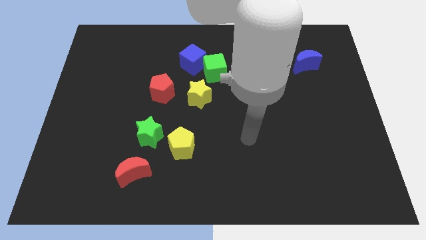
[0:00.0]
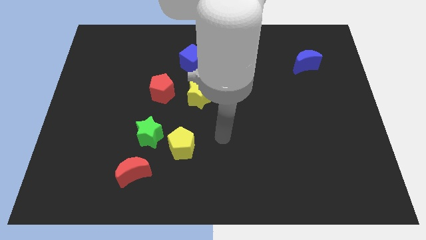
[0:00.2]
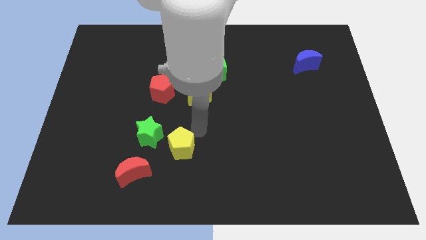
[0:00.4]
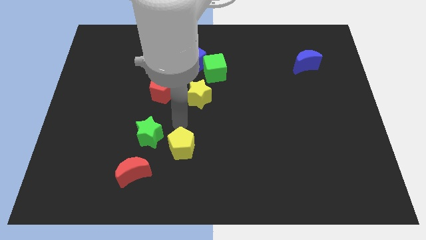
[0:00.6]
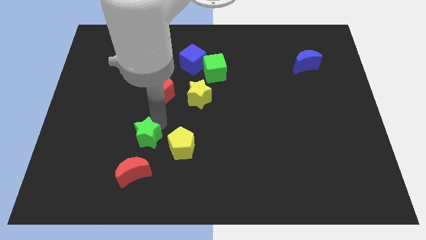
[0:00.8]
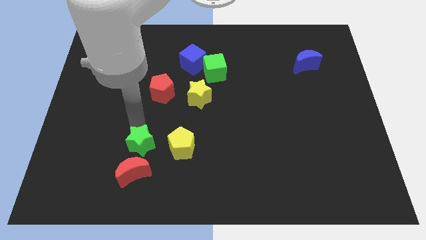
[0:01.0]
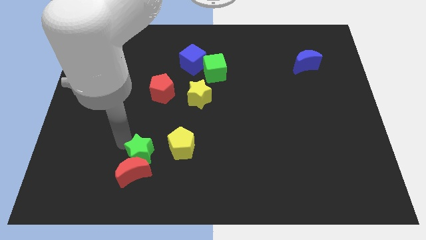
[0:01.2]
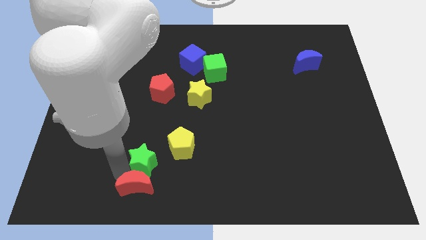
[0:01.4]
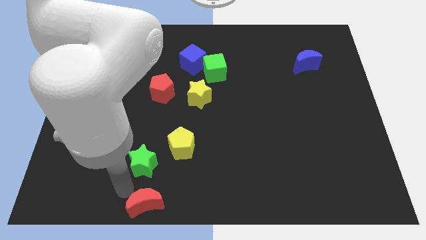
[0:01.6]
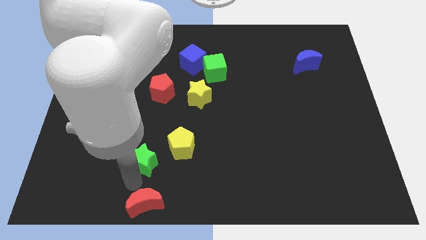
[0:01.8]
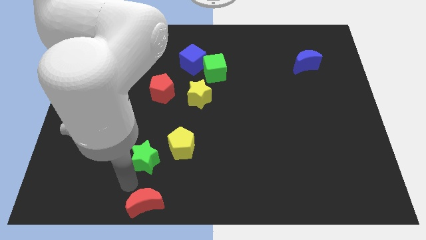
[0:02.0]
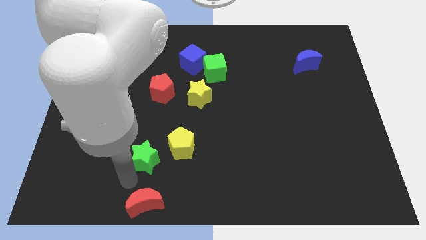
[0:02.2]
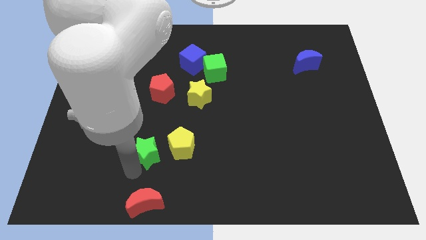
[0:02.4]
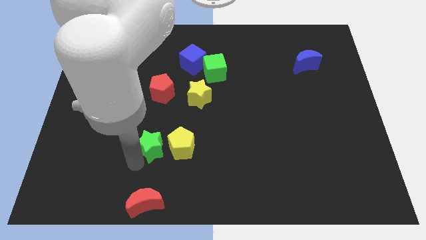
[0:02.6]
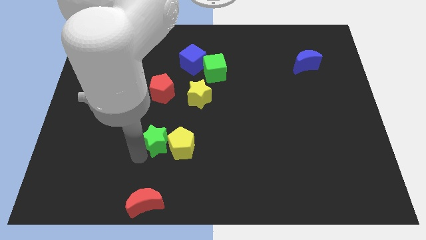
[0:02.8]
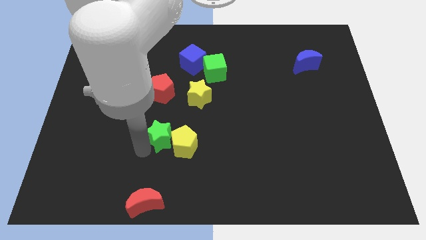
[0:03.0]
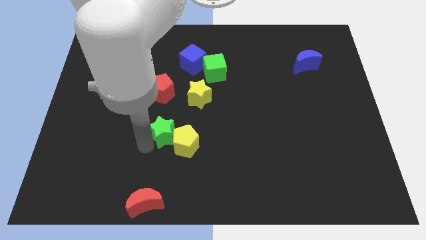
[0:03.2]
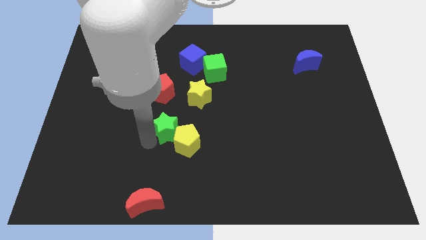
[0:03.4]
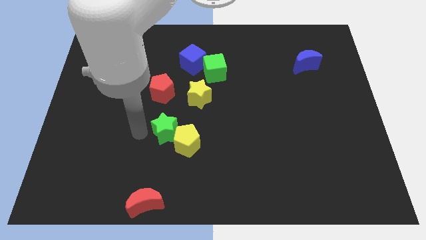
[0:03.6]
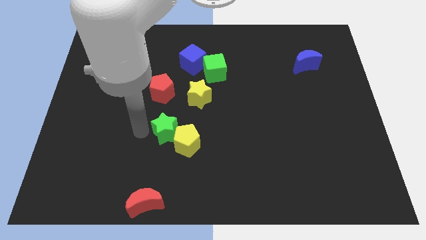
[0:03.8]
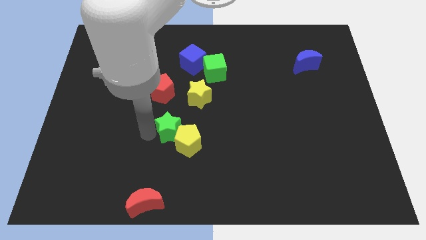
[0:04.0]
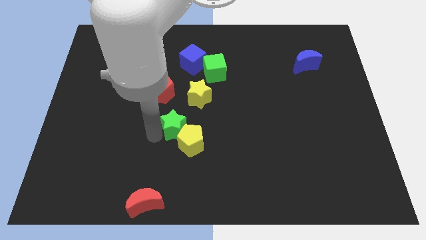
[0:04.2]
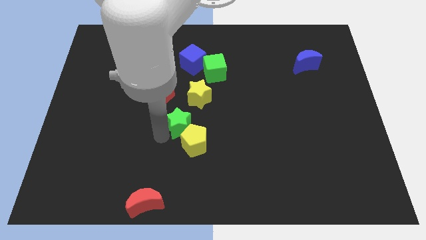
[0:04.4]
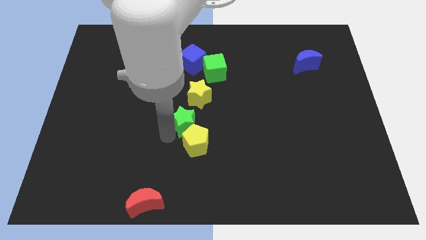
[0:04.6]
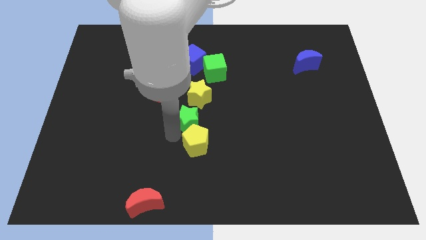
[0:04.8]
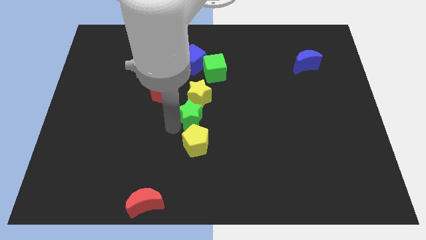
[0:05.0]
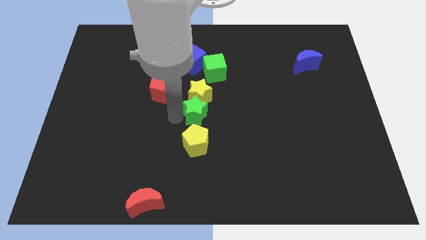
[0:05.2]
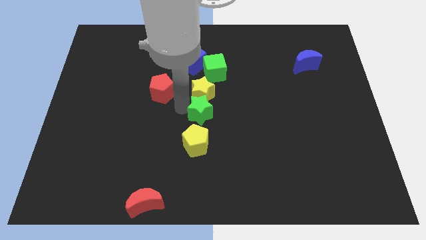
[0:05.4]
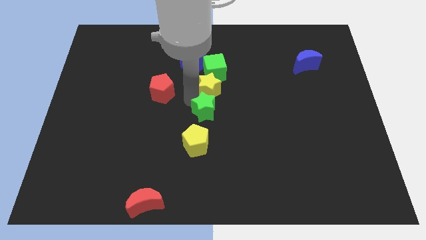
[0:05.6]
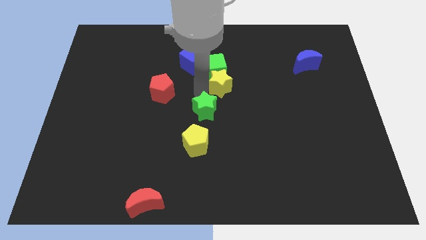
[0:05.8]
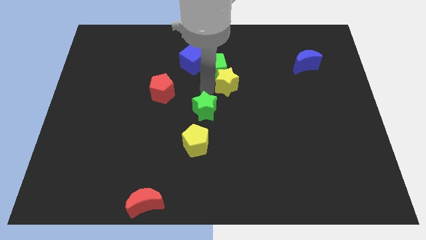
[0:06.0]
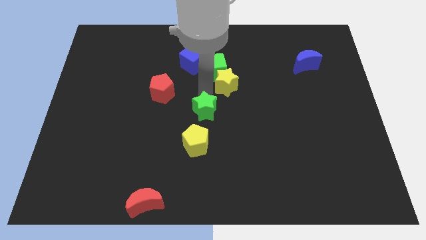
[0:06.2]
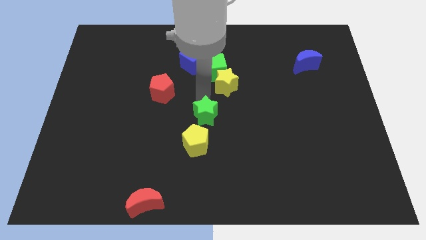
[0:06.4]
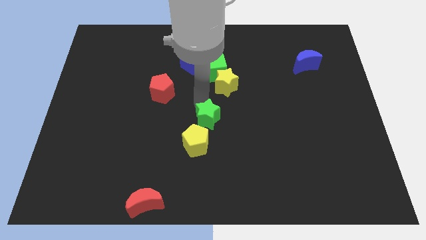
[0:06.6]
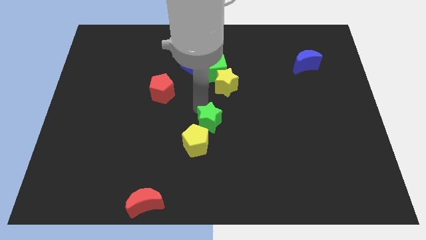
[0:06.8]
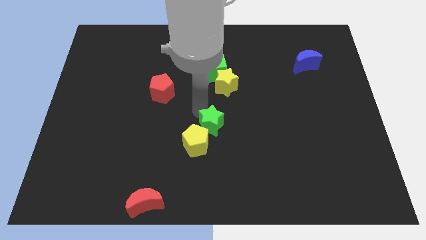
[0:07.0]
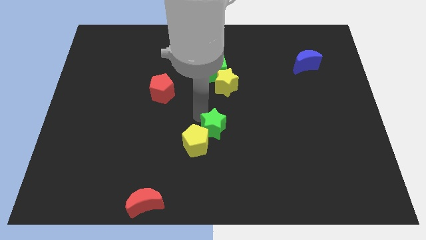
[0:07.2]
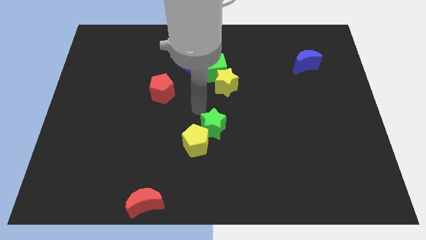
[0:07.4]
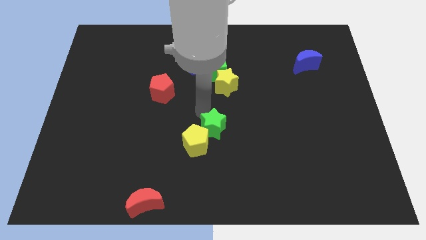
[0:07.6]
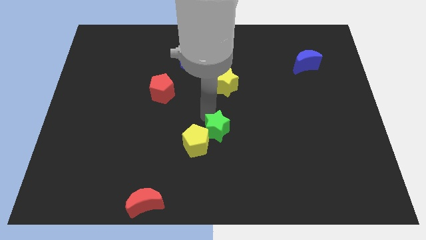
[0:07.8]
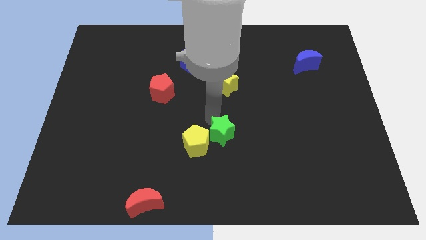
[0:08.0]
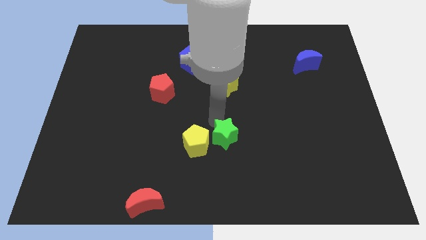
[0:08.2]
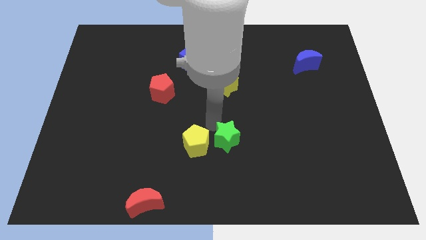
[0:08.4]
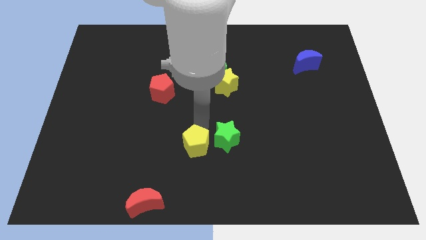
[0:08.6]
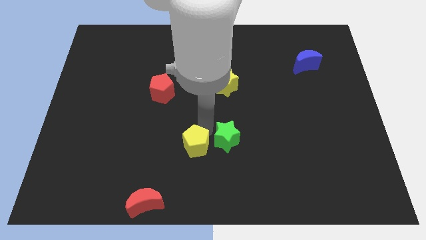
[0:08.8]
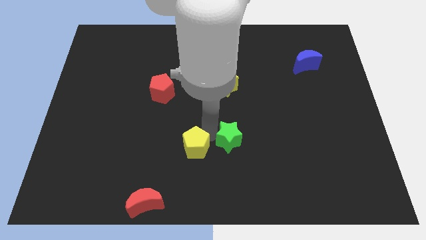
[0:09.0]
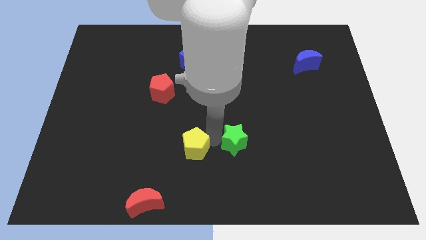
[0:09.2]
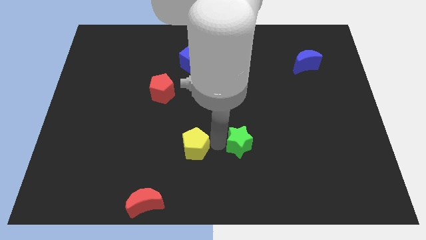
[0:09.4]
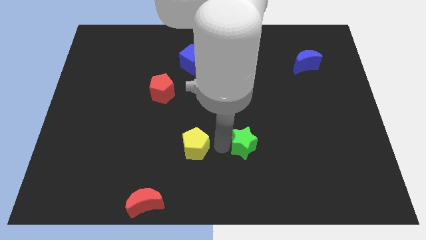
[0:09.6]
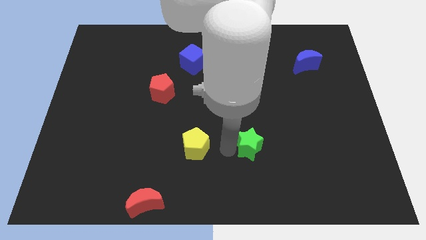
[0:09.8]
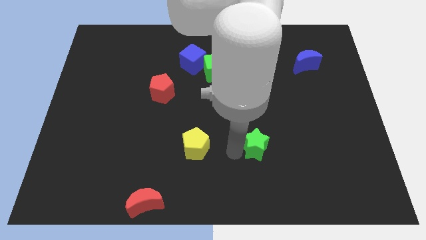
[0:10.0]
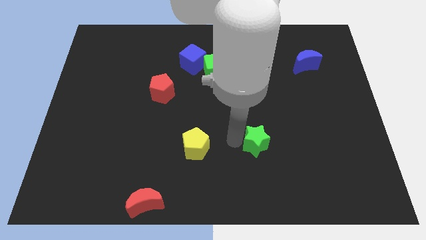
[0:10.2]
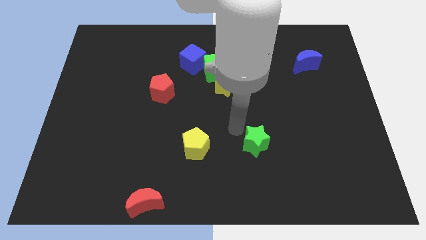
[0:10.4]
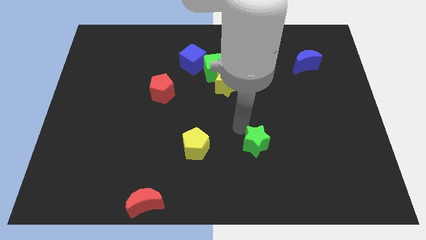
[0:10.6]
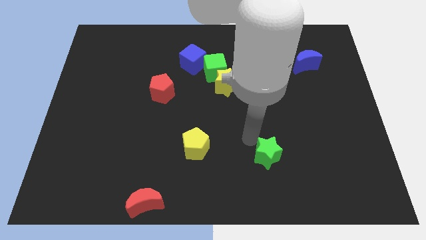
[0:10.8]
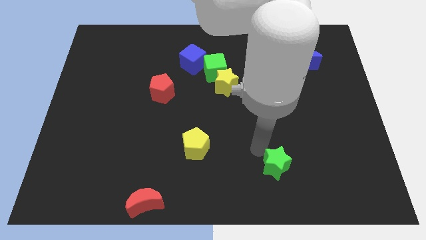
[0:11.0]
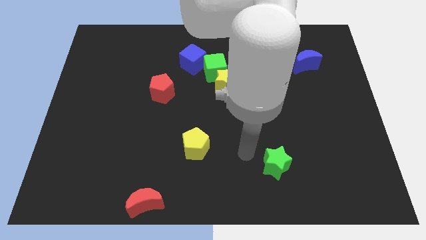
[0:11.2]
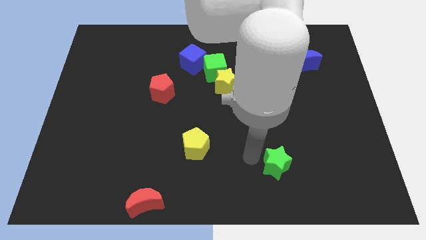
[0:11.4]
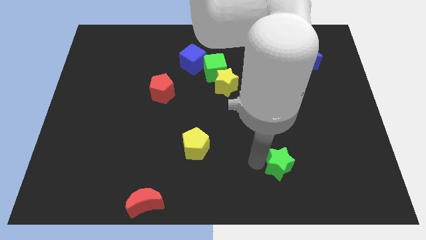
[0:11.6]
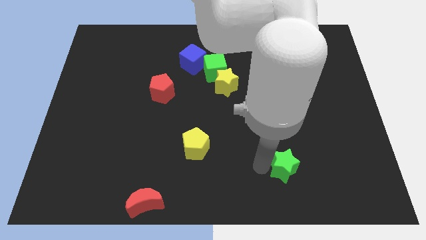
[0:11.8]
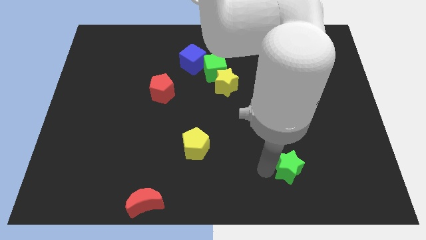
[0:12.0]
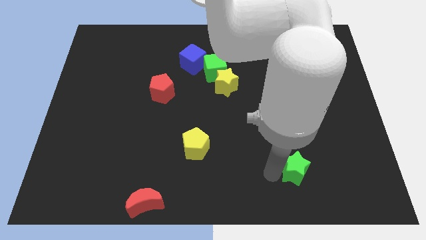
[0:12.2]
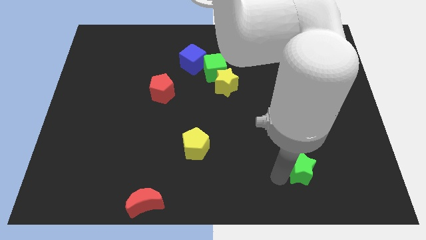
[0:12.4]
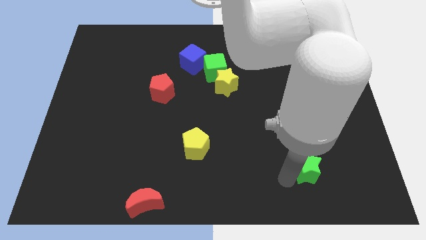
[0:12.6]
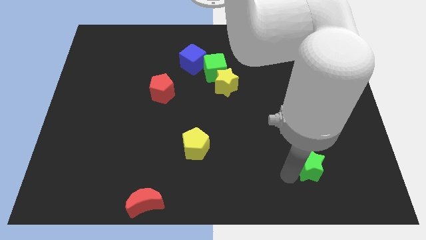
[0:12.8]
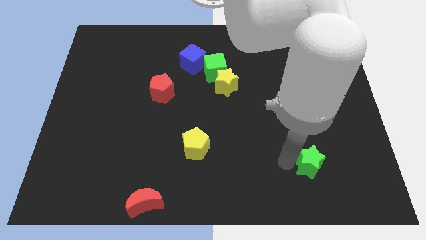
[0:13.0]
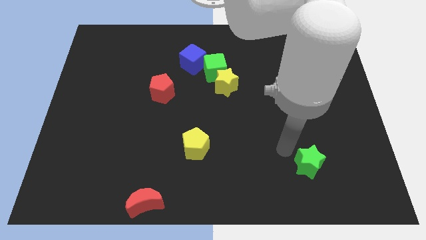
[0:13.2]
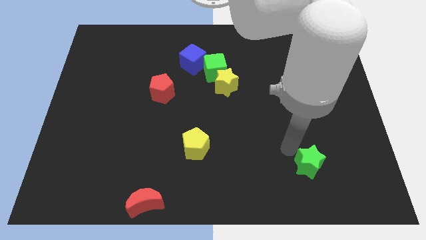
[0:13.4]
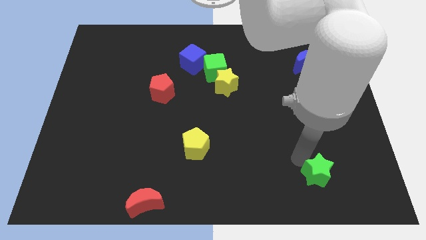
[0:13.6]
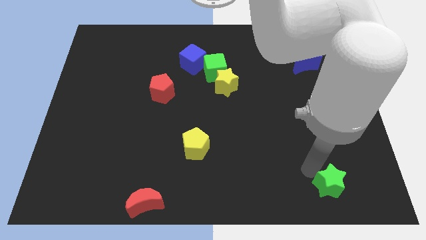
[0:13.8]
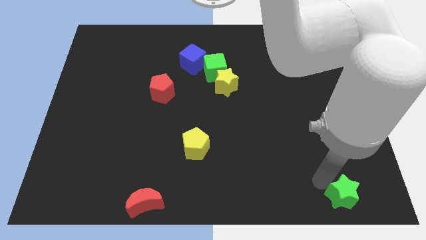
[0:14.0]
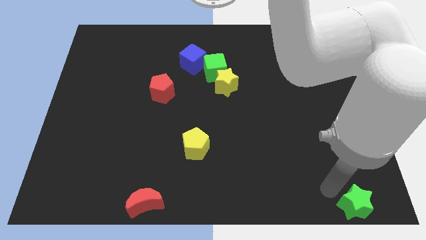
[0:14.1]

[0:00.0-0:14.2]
move the green star to the lower right corner
